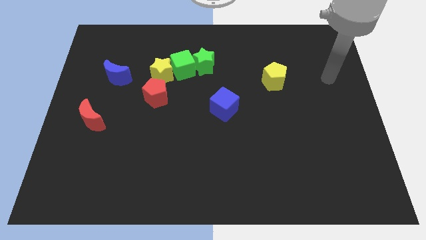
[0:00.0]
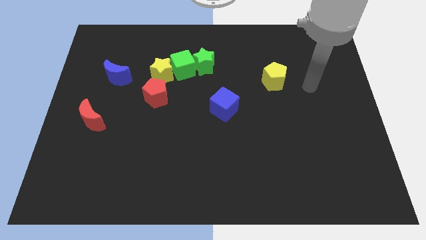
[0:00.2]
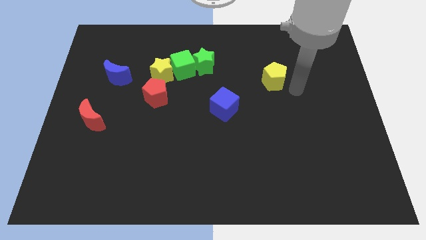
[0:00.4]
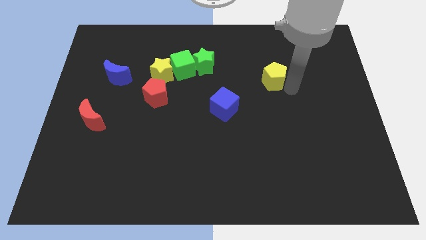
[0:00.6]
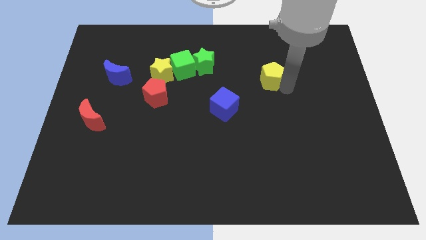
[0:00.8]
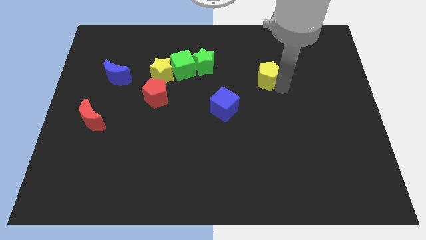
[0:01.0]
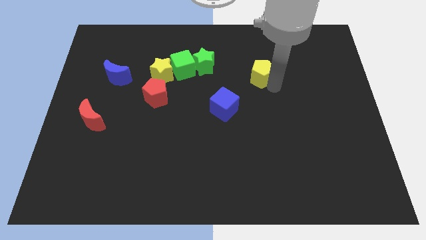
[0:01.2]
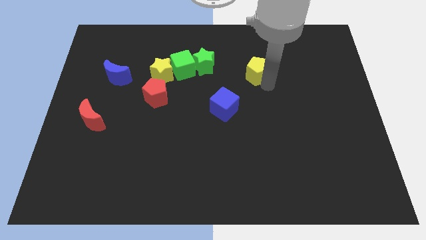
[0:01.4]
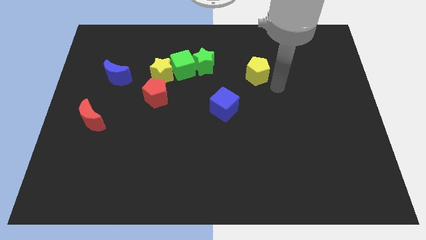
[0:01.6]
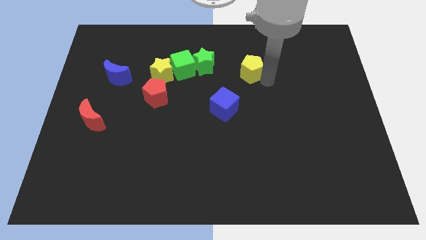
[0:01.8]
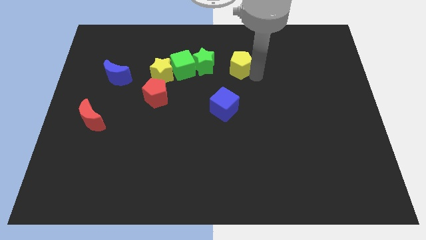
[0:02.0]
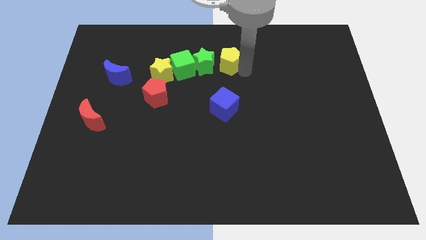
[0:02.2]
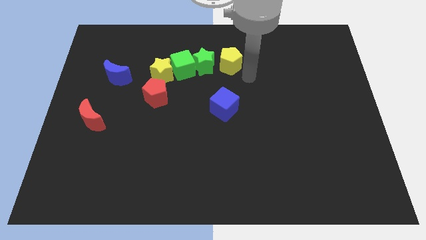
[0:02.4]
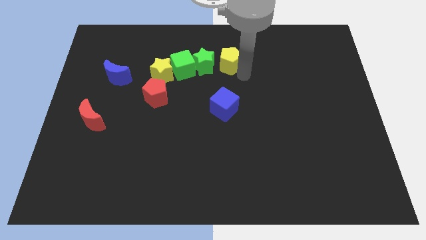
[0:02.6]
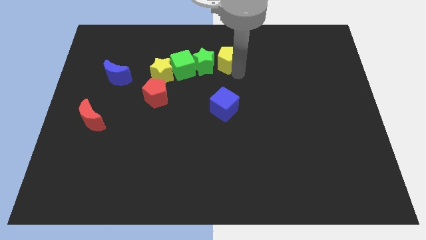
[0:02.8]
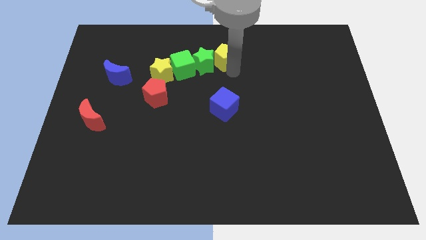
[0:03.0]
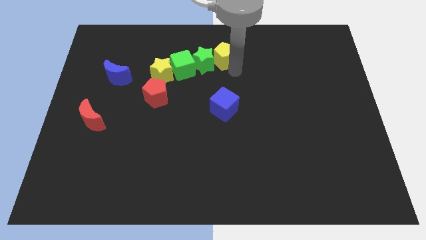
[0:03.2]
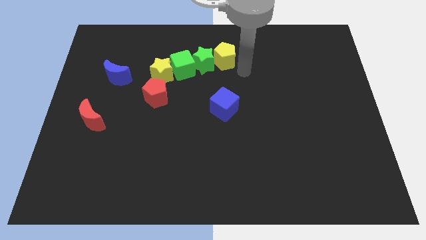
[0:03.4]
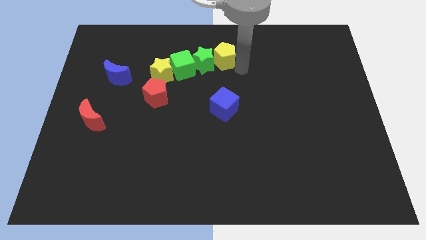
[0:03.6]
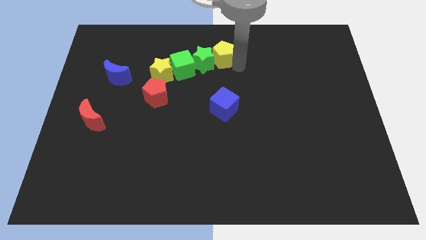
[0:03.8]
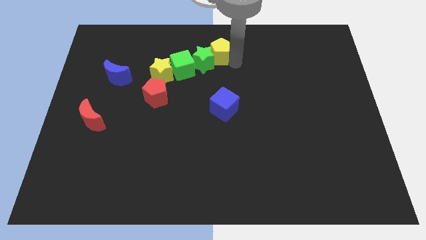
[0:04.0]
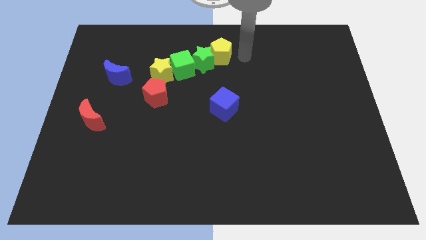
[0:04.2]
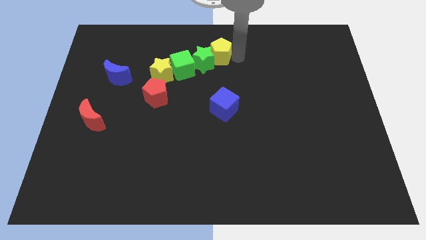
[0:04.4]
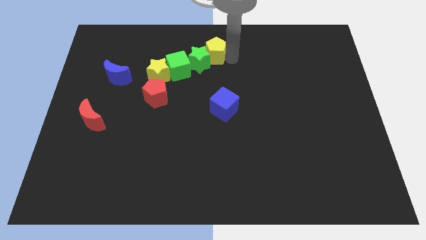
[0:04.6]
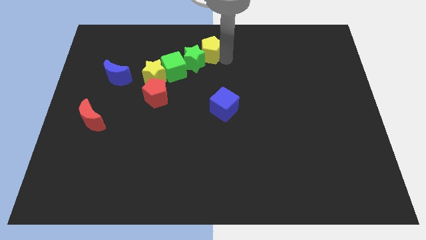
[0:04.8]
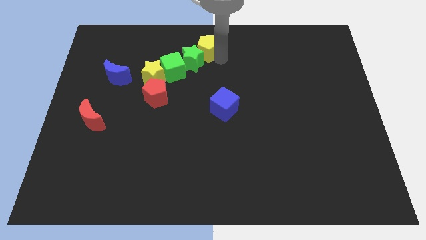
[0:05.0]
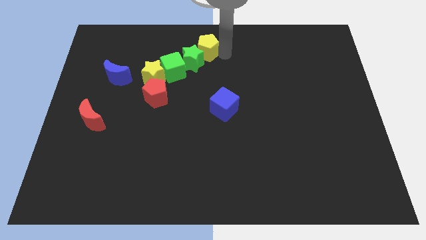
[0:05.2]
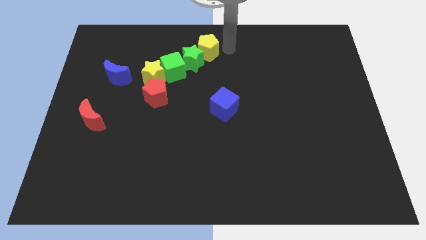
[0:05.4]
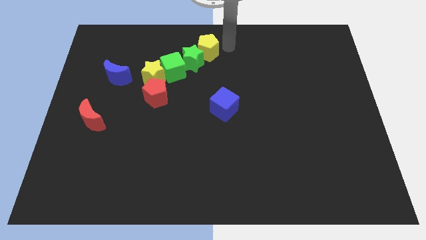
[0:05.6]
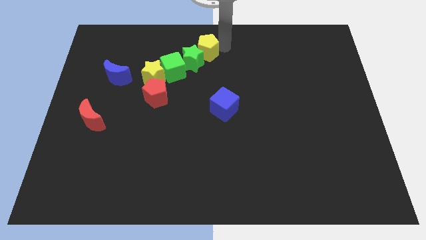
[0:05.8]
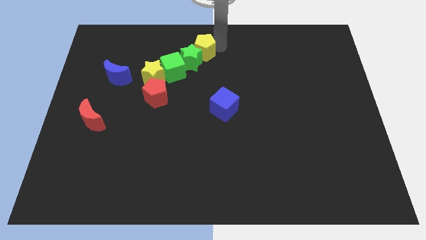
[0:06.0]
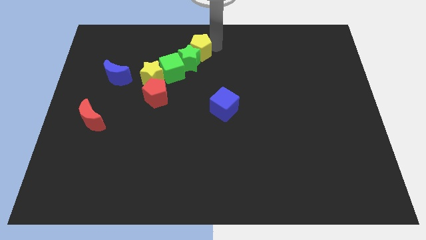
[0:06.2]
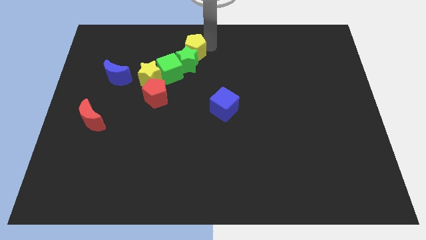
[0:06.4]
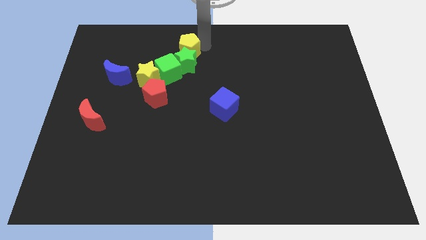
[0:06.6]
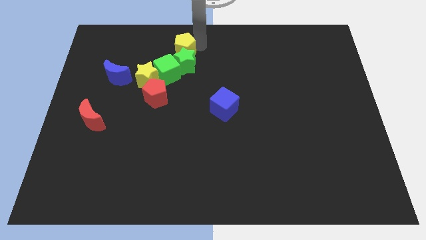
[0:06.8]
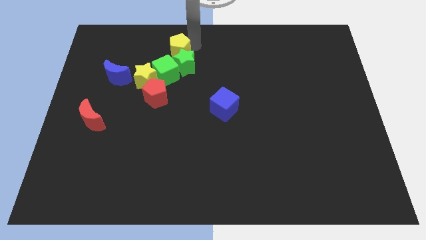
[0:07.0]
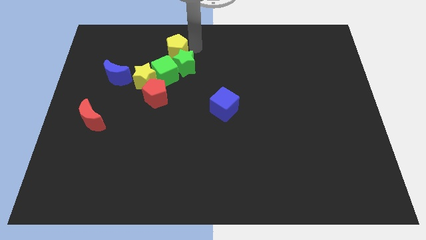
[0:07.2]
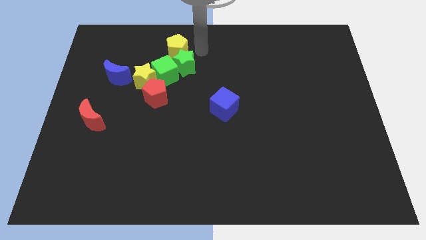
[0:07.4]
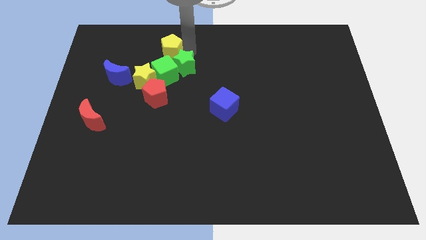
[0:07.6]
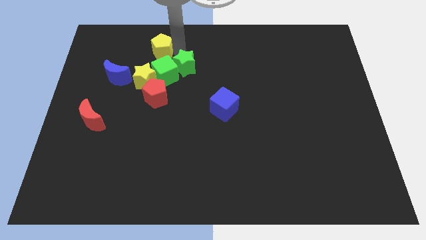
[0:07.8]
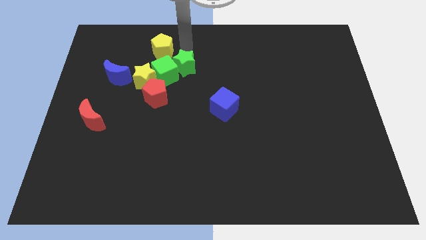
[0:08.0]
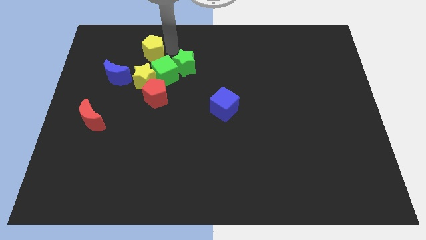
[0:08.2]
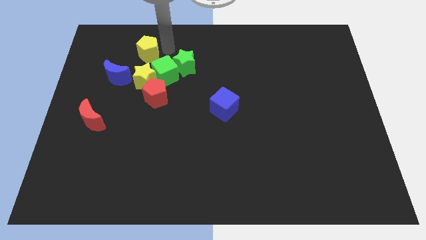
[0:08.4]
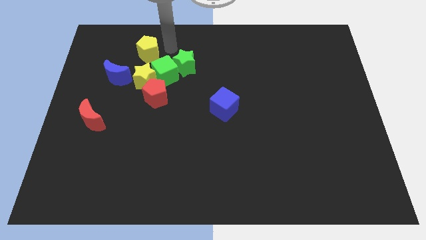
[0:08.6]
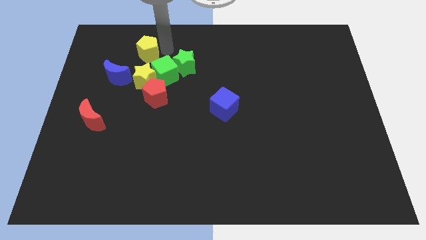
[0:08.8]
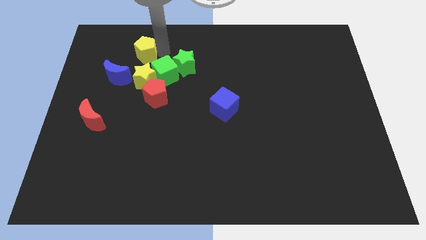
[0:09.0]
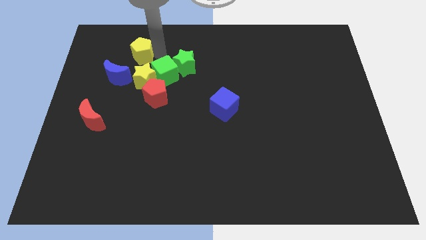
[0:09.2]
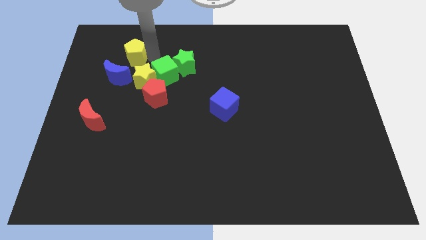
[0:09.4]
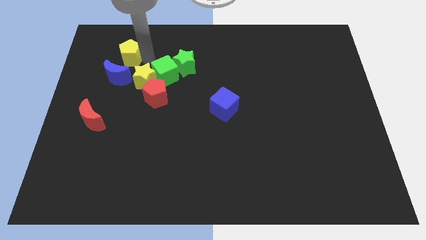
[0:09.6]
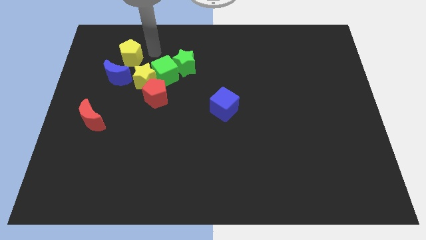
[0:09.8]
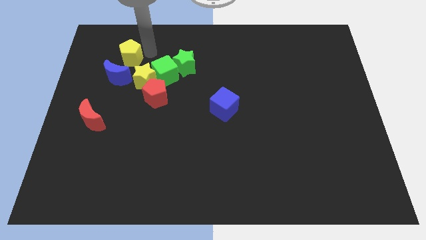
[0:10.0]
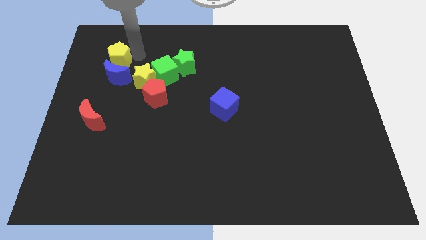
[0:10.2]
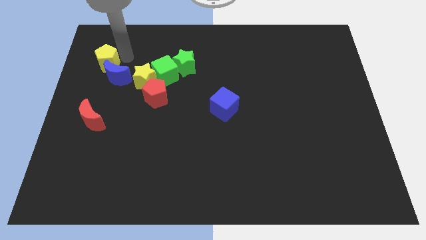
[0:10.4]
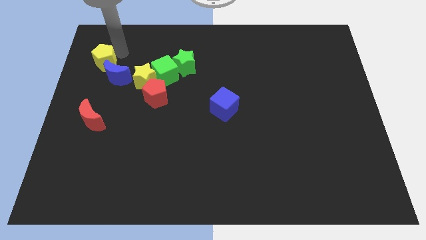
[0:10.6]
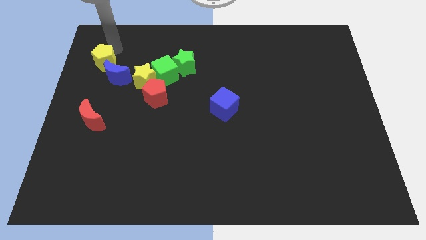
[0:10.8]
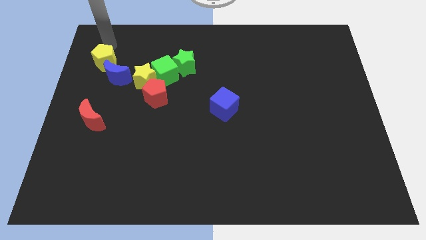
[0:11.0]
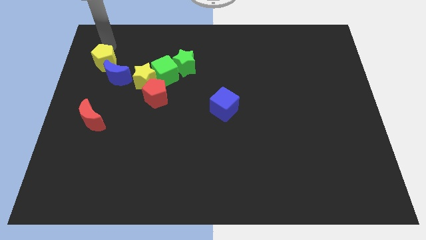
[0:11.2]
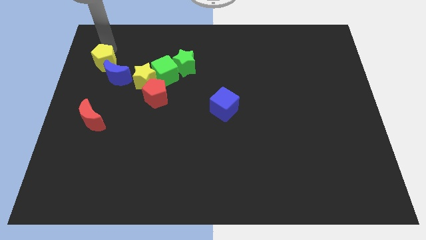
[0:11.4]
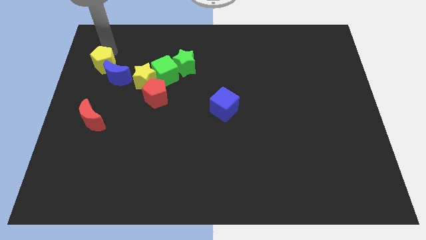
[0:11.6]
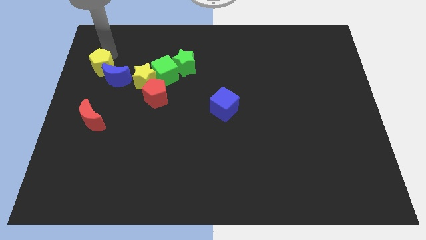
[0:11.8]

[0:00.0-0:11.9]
put the yellow pentagon left of the yellow star

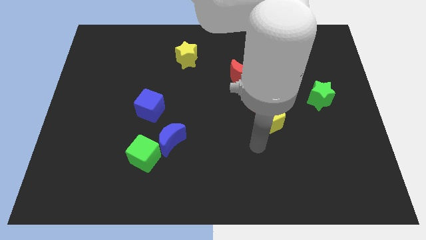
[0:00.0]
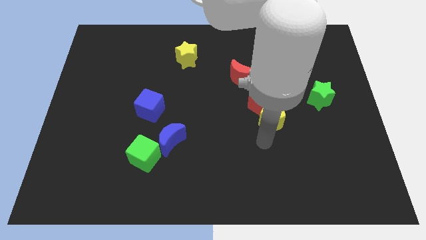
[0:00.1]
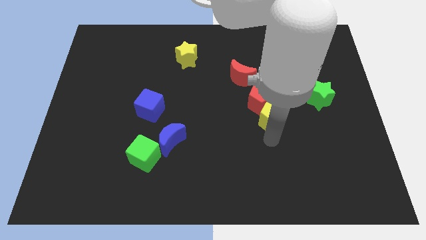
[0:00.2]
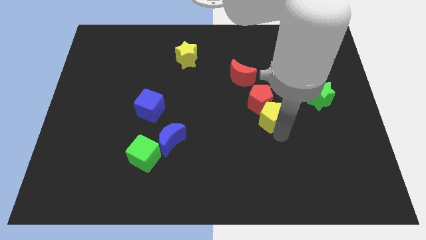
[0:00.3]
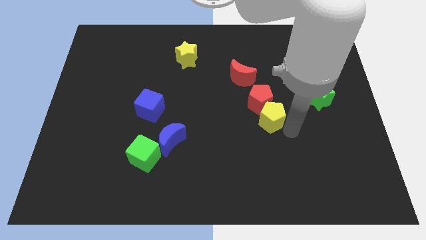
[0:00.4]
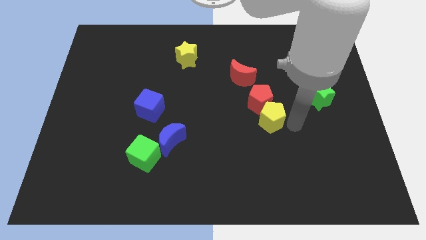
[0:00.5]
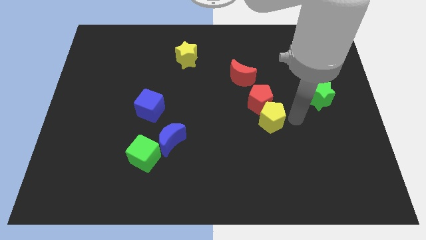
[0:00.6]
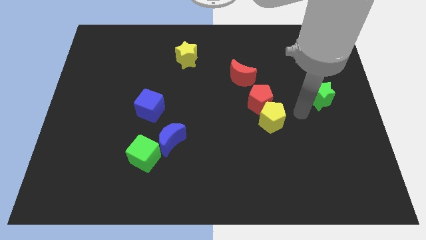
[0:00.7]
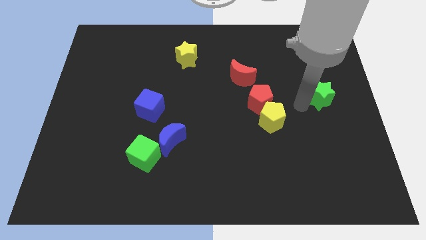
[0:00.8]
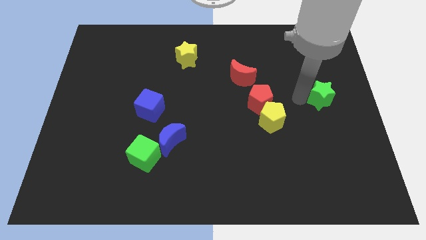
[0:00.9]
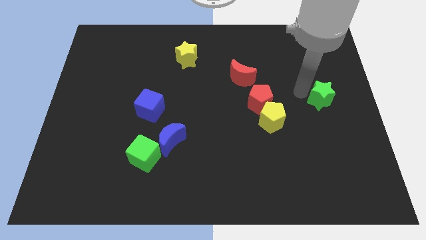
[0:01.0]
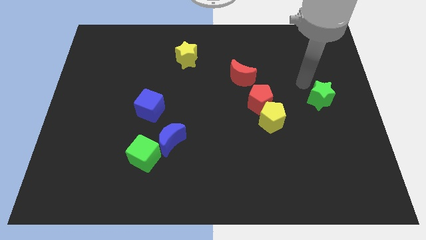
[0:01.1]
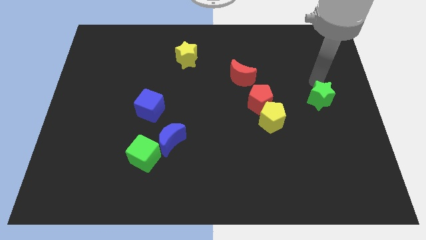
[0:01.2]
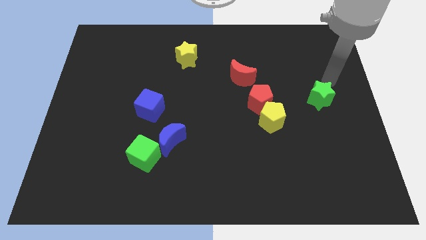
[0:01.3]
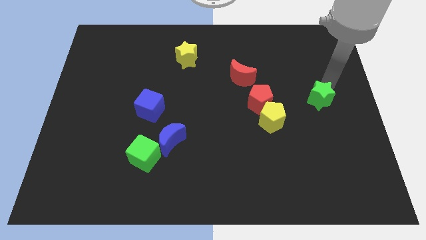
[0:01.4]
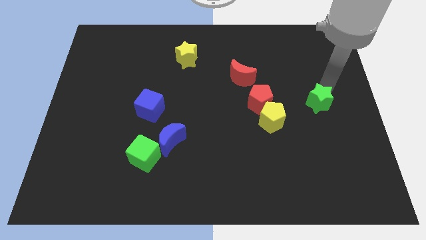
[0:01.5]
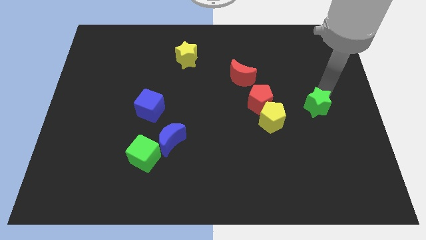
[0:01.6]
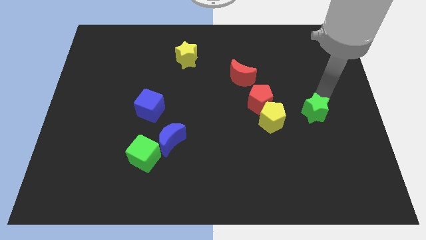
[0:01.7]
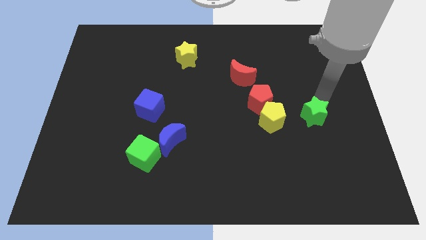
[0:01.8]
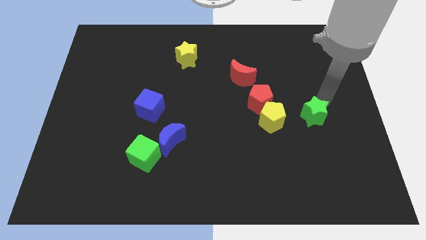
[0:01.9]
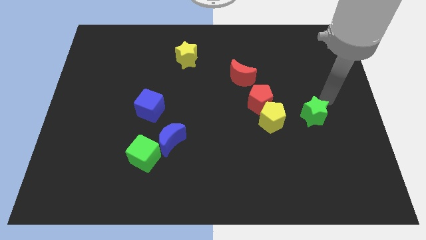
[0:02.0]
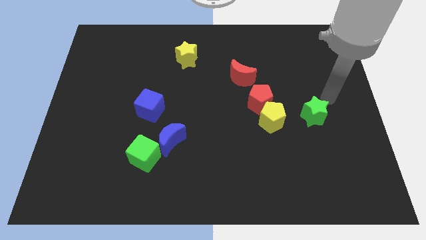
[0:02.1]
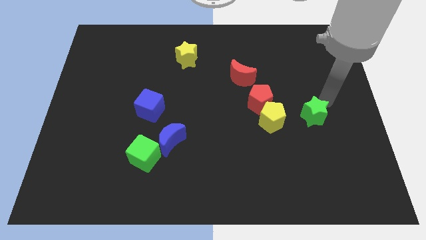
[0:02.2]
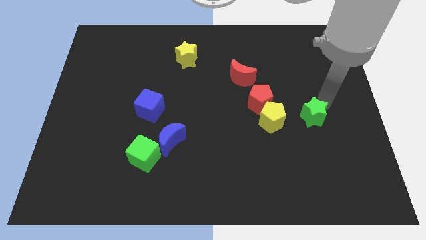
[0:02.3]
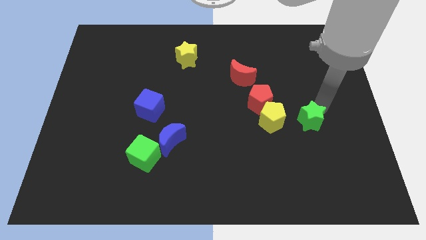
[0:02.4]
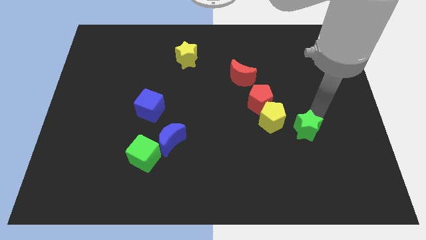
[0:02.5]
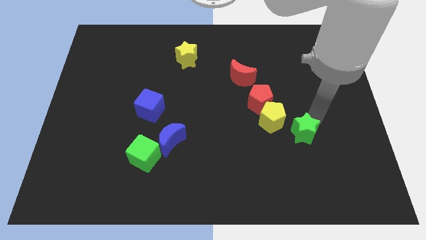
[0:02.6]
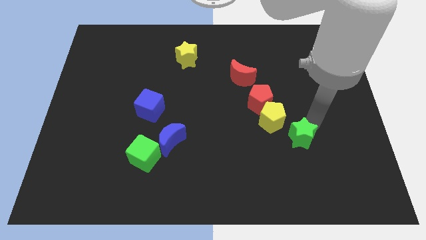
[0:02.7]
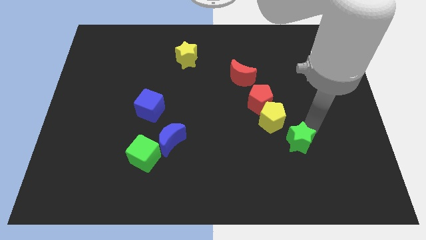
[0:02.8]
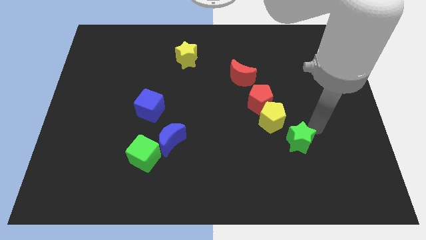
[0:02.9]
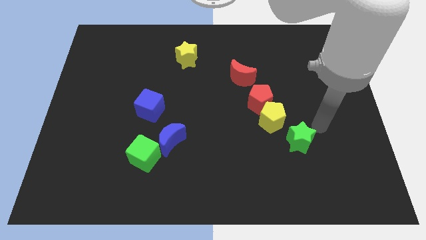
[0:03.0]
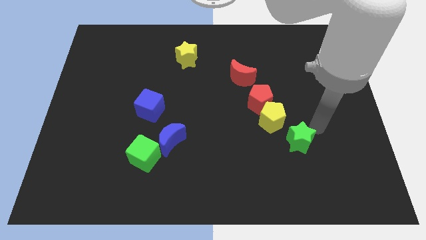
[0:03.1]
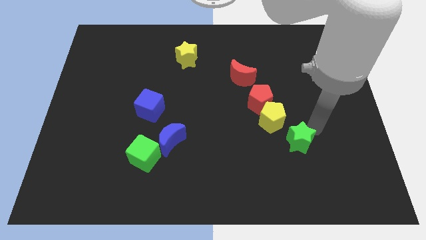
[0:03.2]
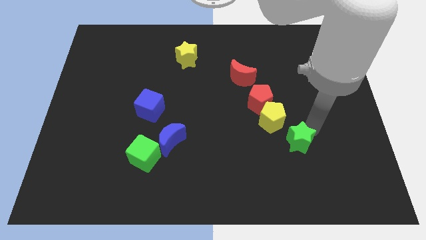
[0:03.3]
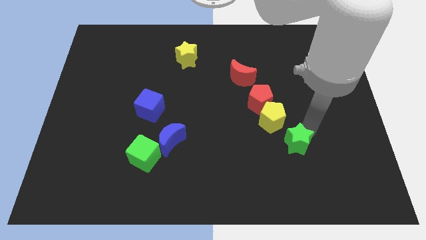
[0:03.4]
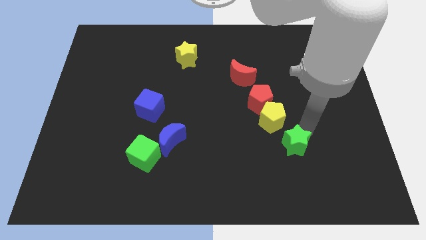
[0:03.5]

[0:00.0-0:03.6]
put the green star below the yellow pentagon
